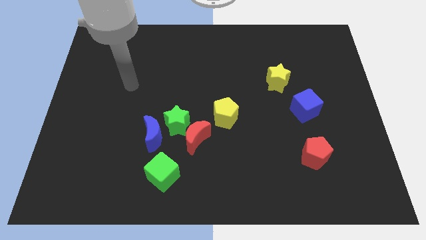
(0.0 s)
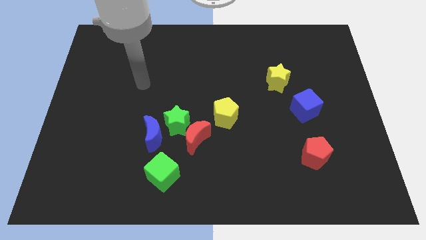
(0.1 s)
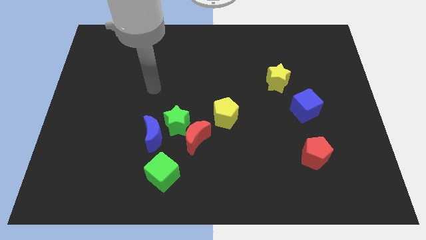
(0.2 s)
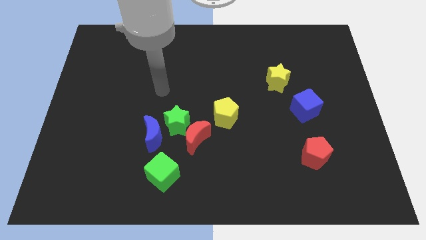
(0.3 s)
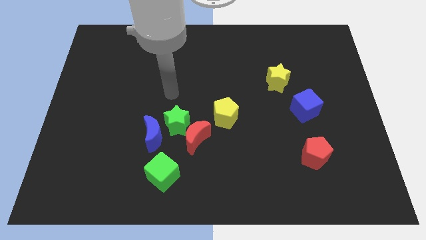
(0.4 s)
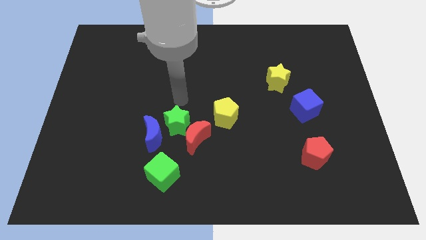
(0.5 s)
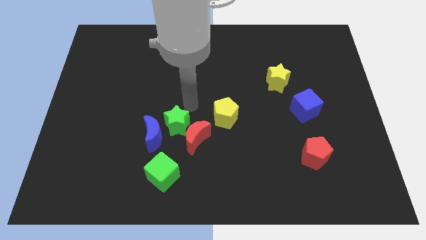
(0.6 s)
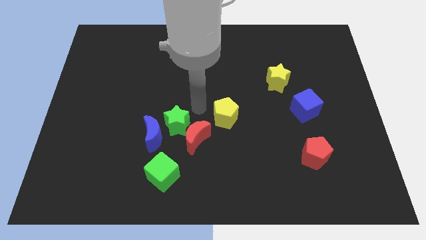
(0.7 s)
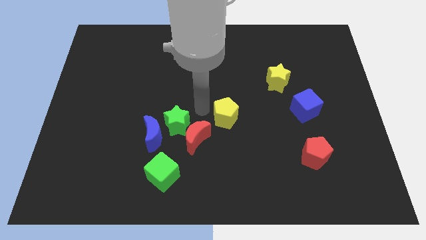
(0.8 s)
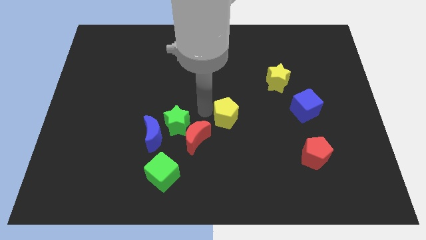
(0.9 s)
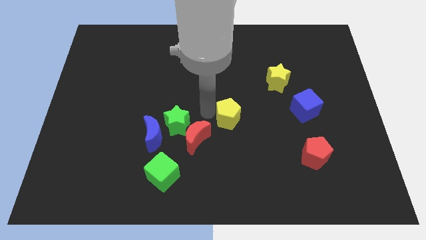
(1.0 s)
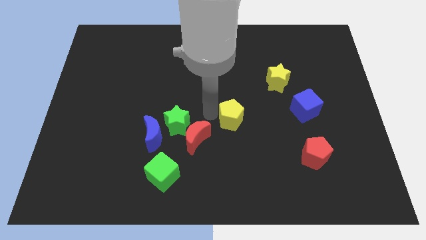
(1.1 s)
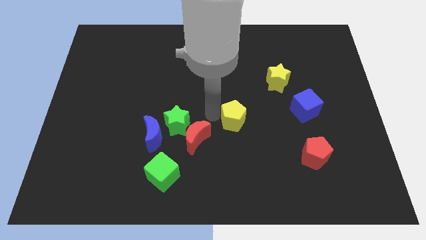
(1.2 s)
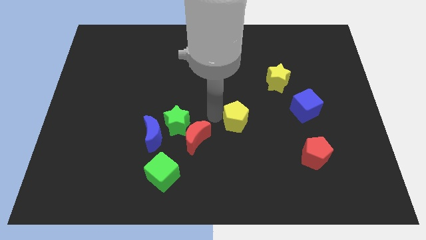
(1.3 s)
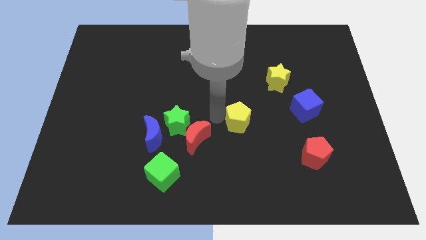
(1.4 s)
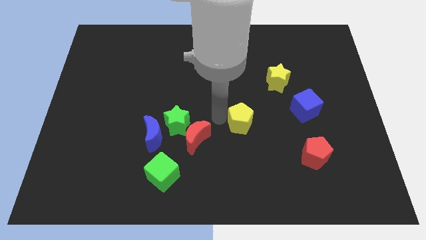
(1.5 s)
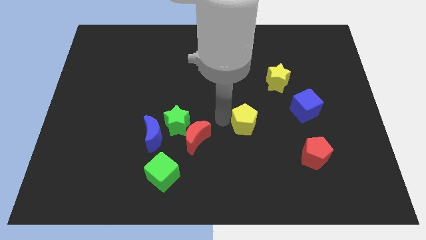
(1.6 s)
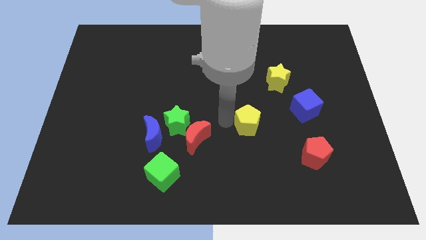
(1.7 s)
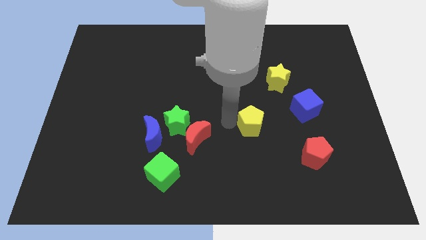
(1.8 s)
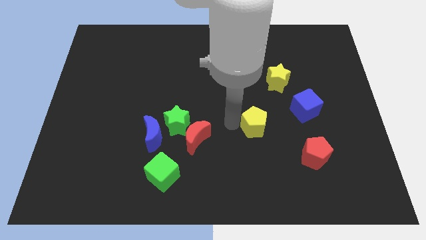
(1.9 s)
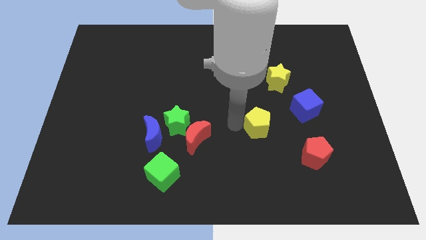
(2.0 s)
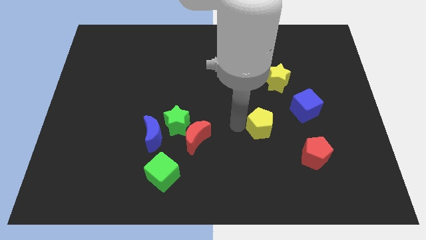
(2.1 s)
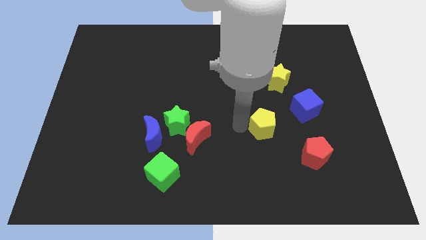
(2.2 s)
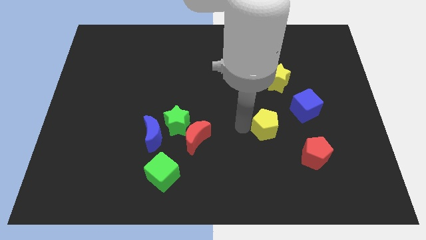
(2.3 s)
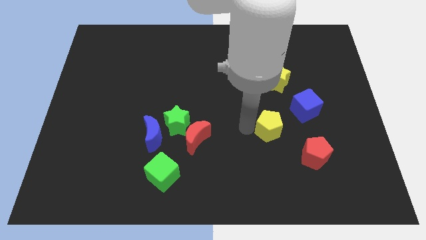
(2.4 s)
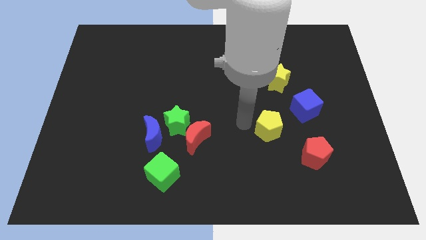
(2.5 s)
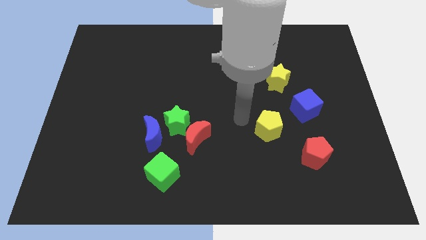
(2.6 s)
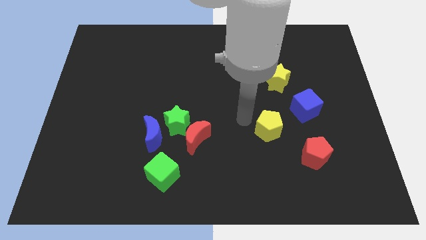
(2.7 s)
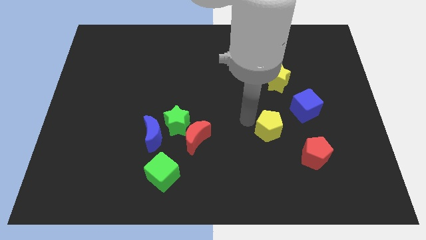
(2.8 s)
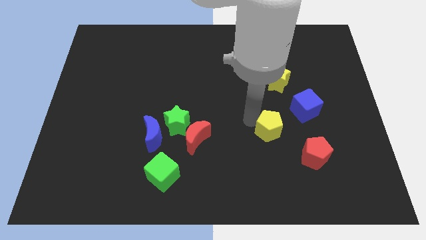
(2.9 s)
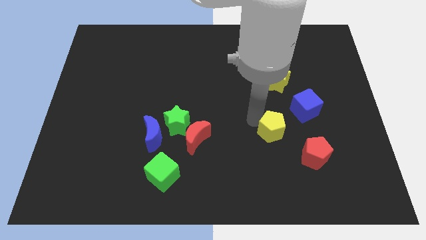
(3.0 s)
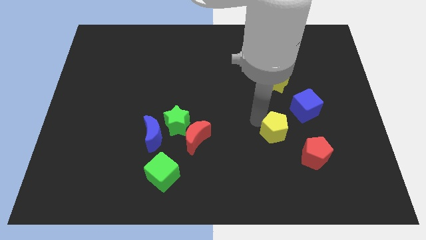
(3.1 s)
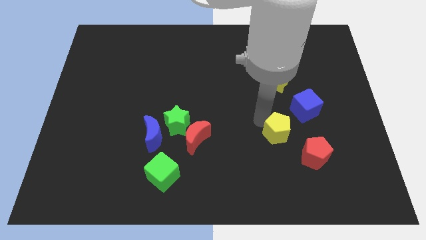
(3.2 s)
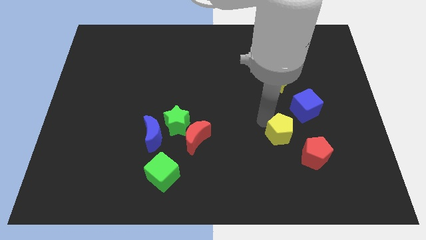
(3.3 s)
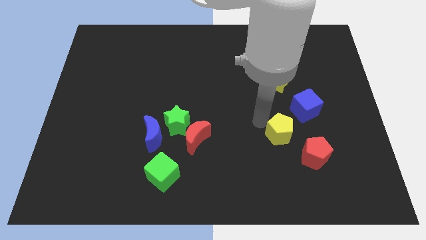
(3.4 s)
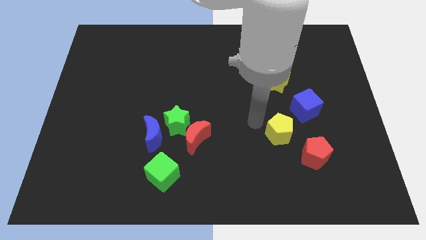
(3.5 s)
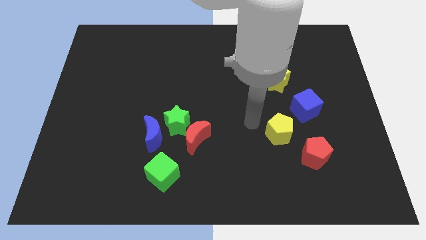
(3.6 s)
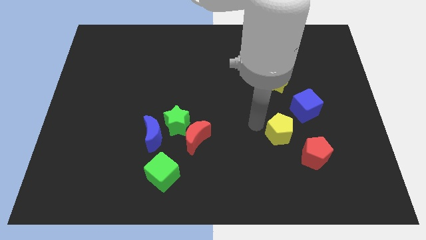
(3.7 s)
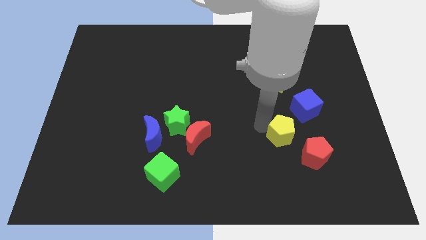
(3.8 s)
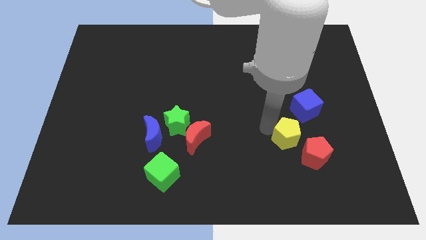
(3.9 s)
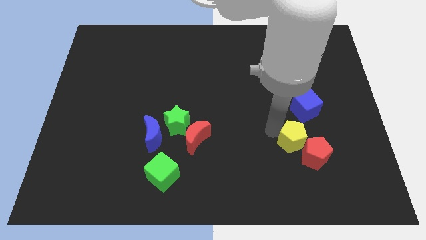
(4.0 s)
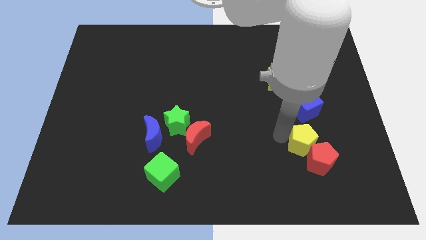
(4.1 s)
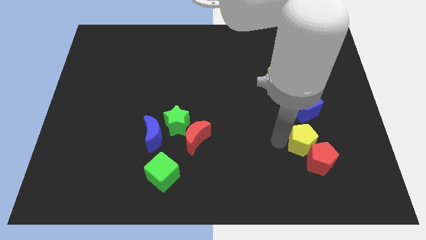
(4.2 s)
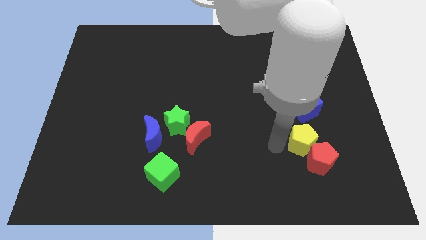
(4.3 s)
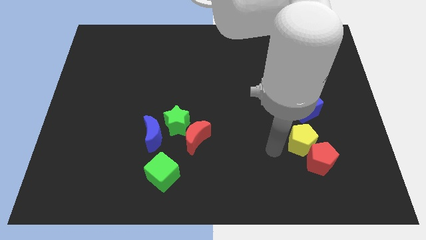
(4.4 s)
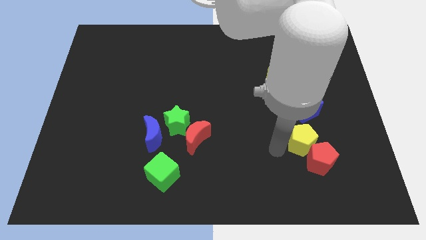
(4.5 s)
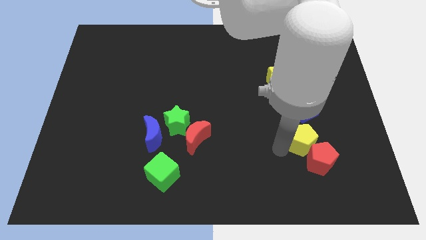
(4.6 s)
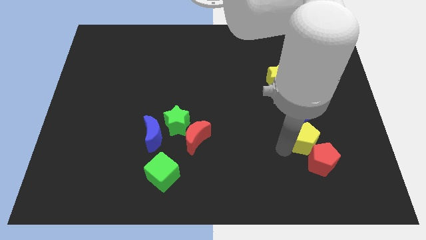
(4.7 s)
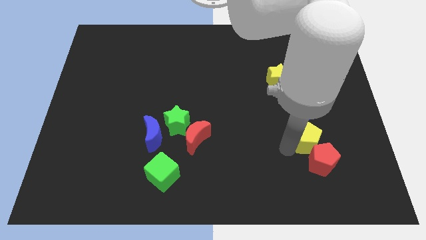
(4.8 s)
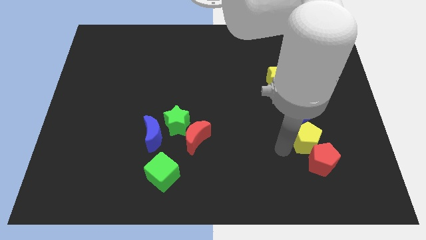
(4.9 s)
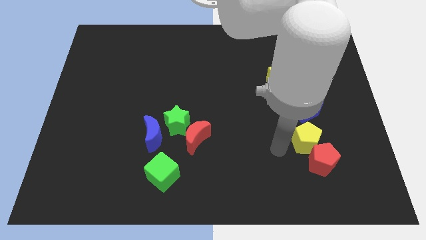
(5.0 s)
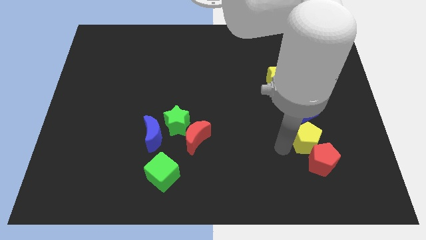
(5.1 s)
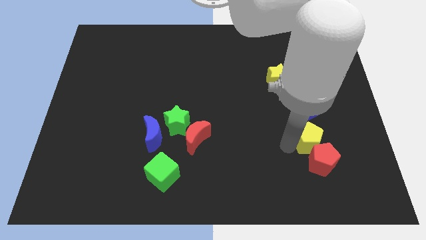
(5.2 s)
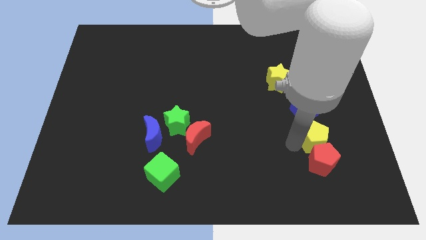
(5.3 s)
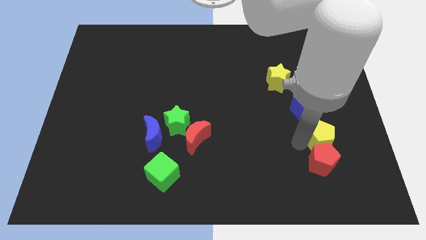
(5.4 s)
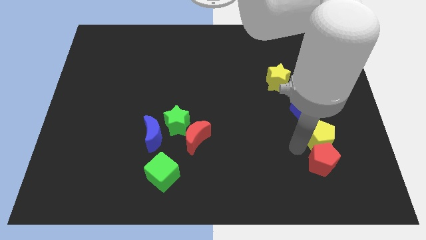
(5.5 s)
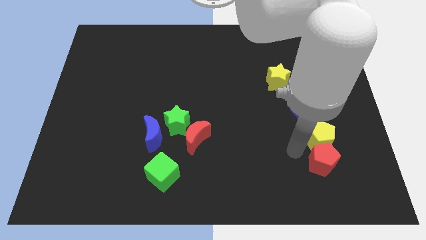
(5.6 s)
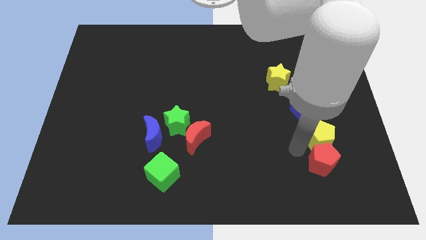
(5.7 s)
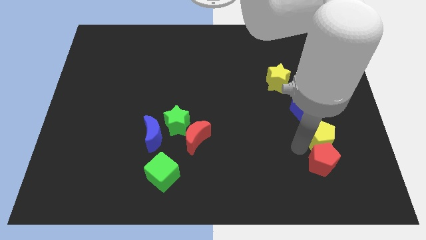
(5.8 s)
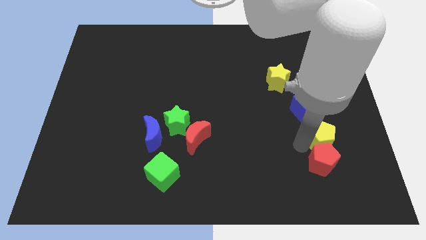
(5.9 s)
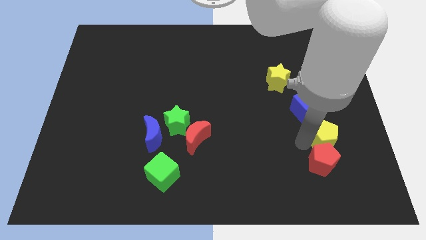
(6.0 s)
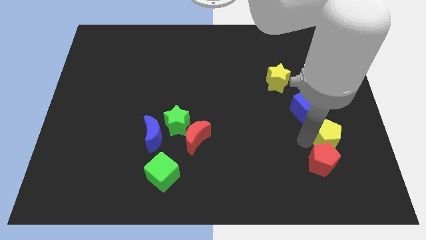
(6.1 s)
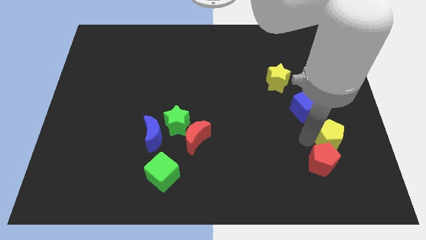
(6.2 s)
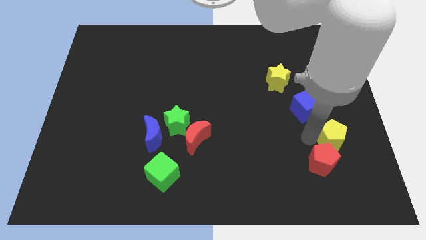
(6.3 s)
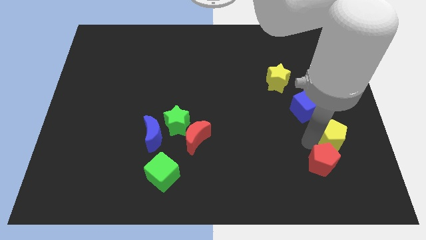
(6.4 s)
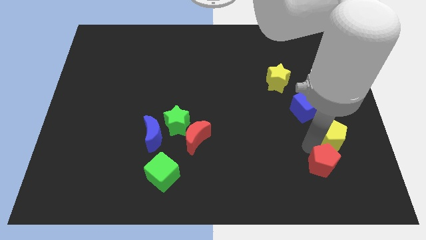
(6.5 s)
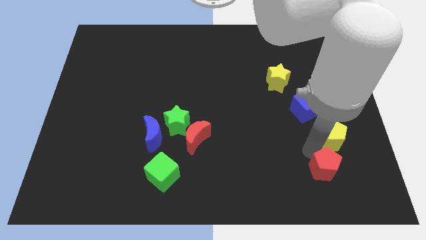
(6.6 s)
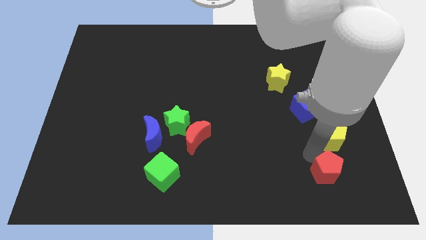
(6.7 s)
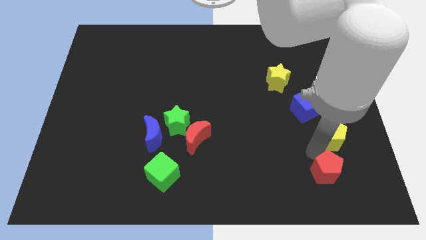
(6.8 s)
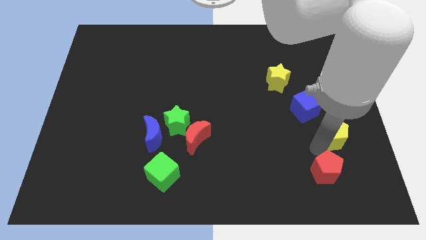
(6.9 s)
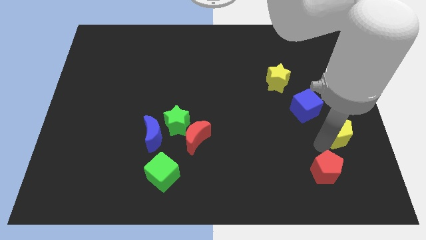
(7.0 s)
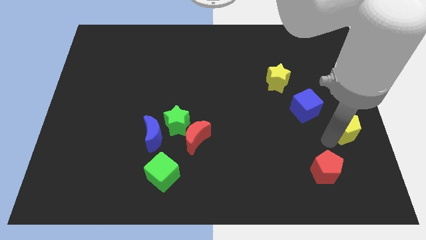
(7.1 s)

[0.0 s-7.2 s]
move the yellow pentagon to the right side of the board
